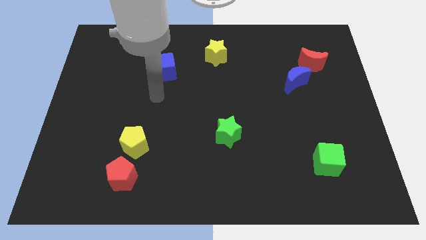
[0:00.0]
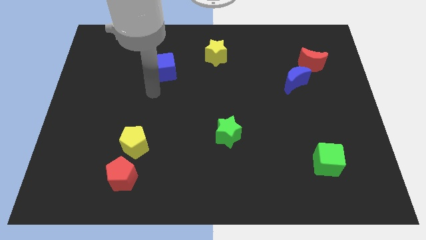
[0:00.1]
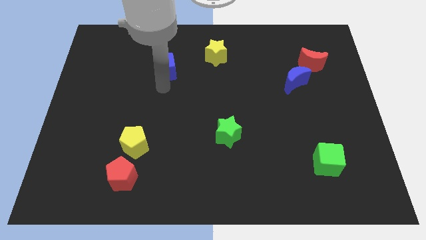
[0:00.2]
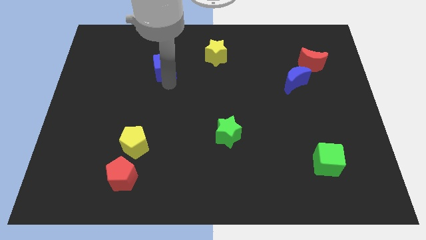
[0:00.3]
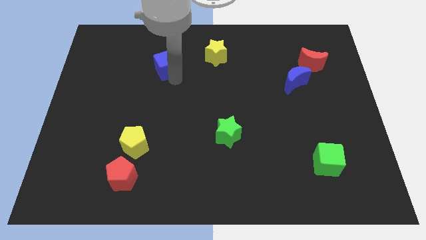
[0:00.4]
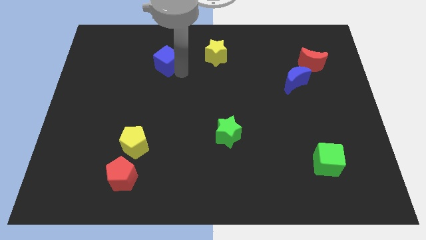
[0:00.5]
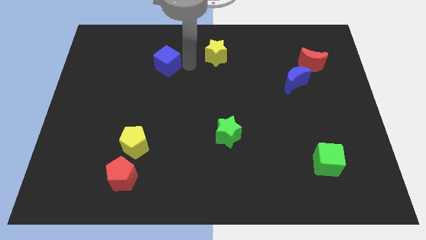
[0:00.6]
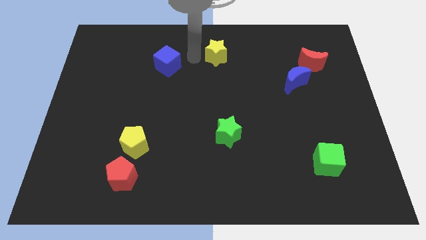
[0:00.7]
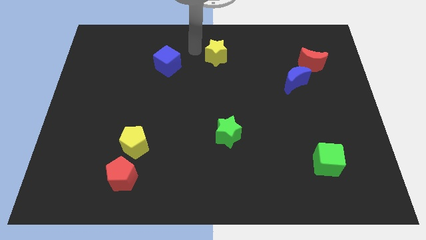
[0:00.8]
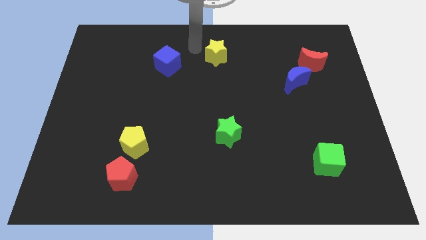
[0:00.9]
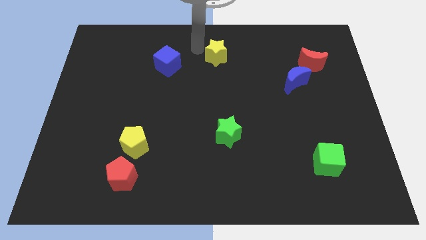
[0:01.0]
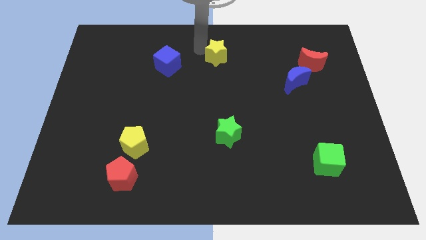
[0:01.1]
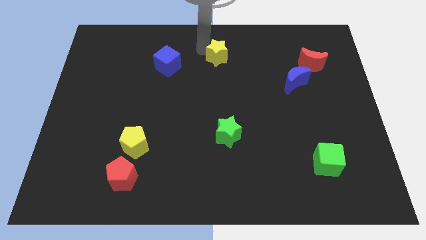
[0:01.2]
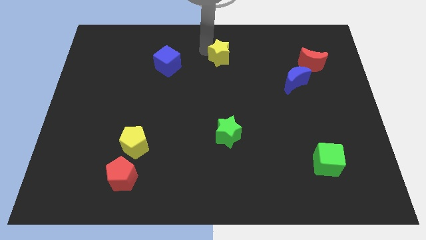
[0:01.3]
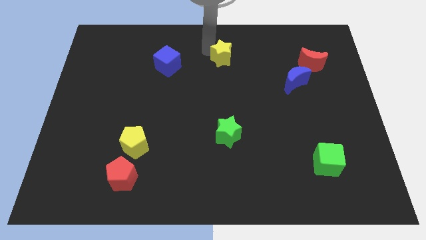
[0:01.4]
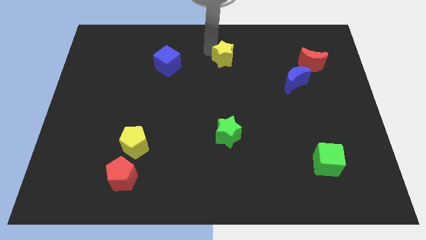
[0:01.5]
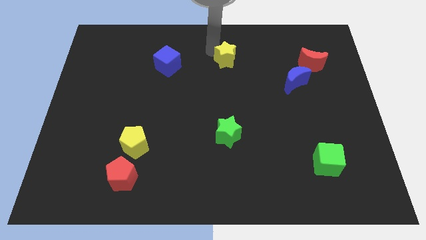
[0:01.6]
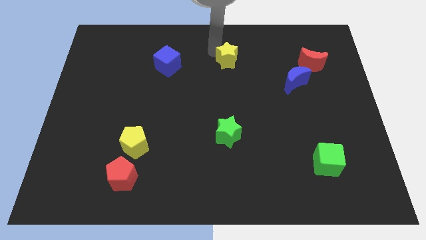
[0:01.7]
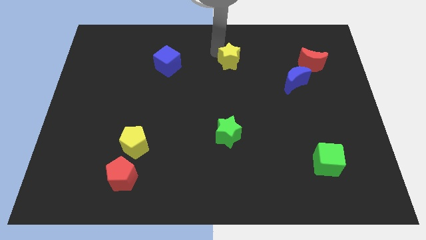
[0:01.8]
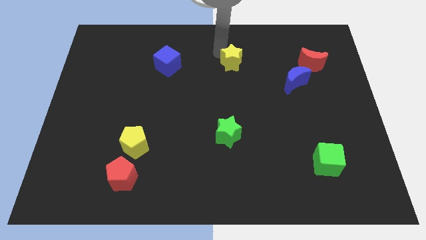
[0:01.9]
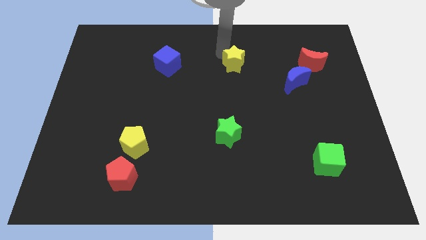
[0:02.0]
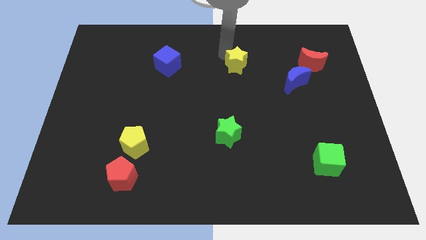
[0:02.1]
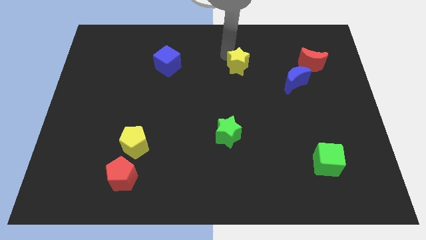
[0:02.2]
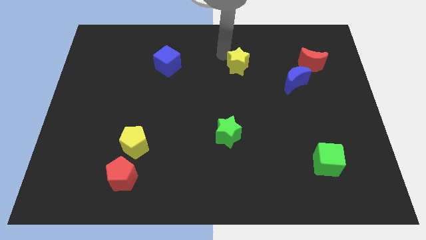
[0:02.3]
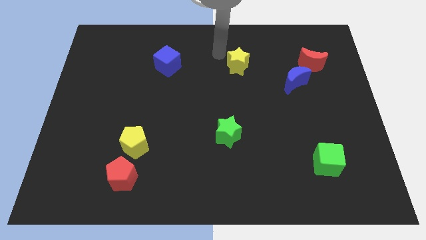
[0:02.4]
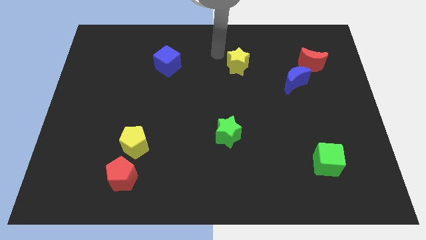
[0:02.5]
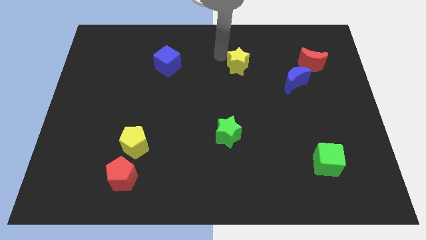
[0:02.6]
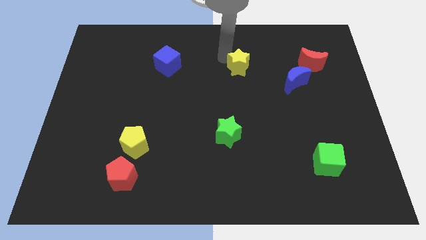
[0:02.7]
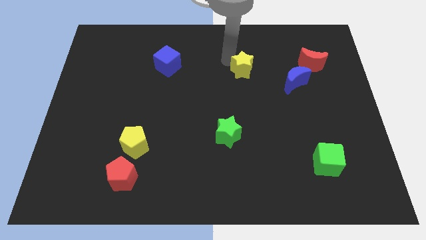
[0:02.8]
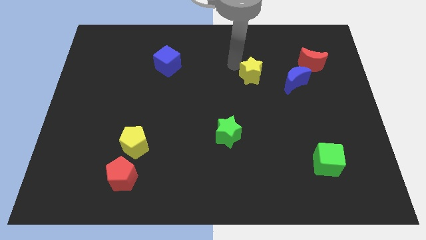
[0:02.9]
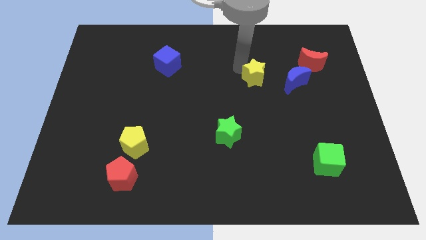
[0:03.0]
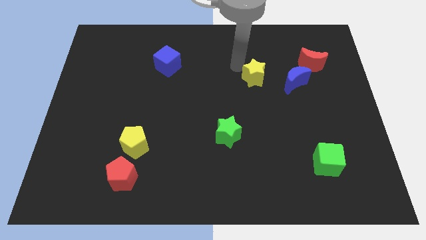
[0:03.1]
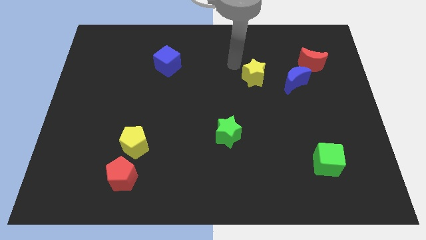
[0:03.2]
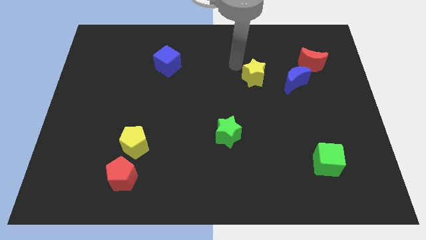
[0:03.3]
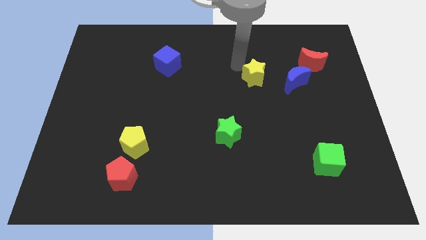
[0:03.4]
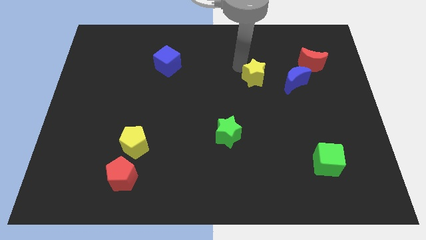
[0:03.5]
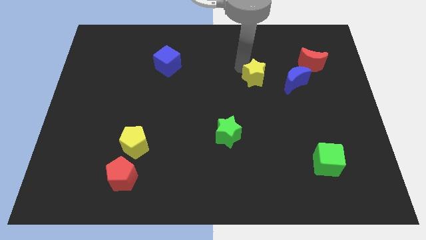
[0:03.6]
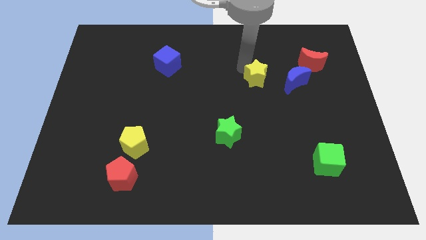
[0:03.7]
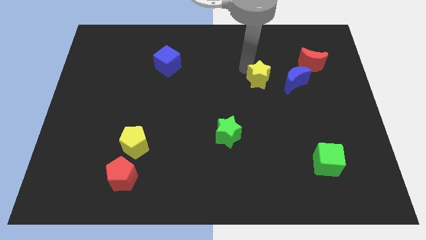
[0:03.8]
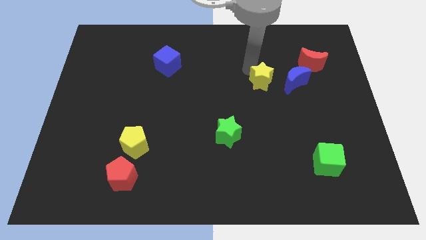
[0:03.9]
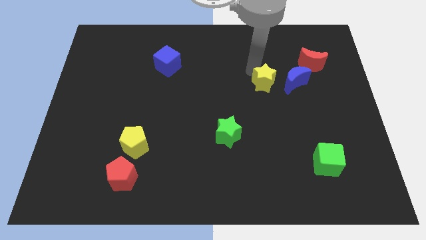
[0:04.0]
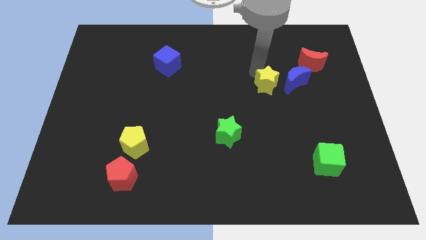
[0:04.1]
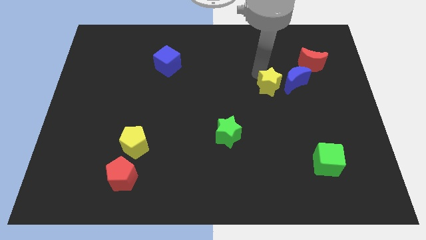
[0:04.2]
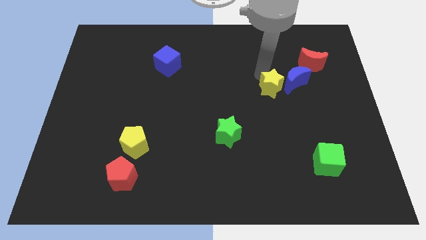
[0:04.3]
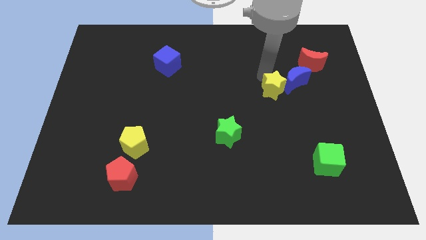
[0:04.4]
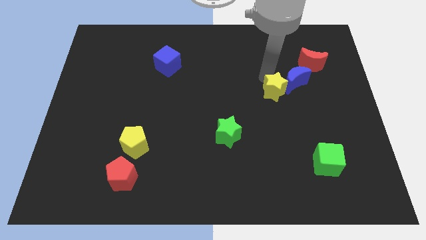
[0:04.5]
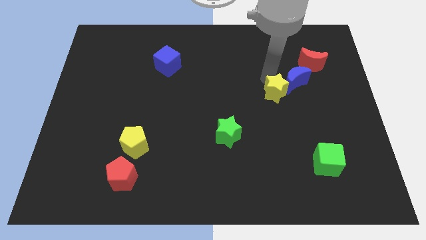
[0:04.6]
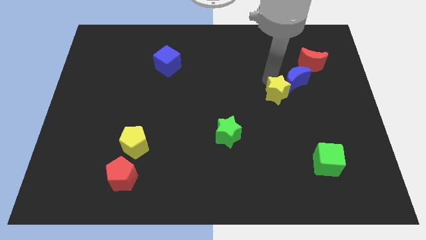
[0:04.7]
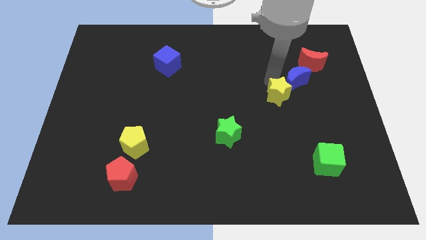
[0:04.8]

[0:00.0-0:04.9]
move the yellow star below the blue moon

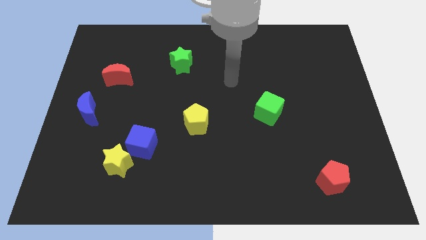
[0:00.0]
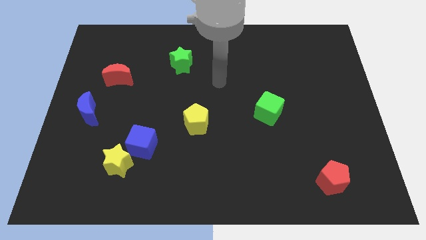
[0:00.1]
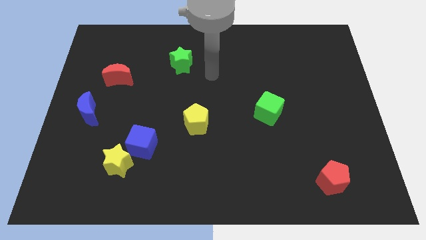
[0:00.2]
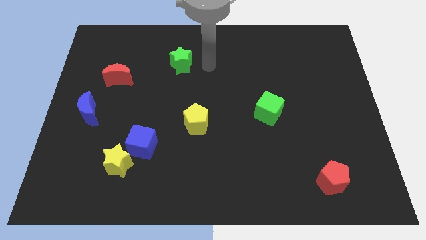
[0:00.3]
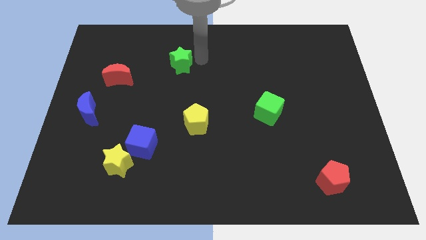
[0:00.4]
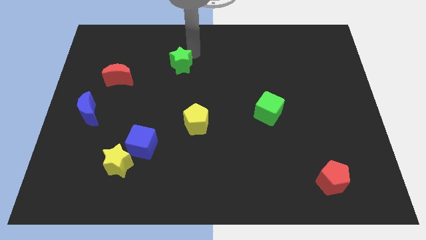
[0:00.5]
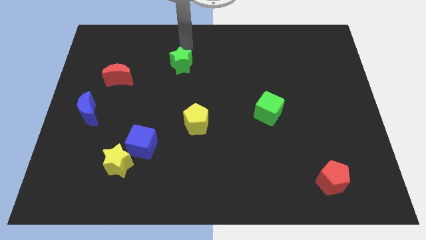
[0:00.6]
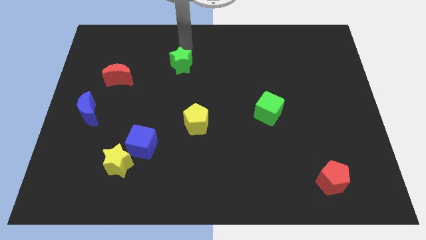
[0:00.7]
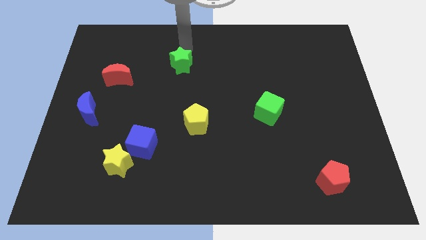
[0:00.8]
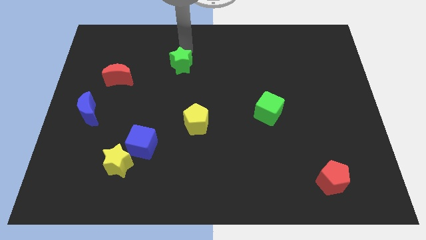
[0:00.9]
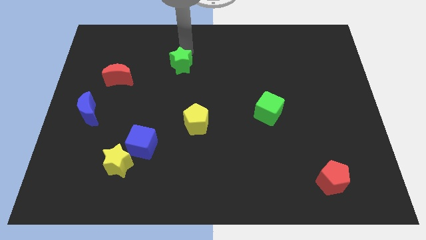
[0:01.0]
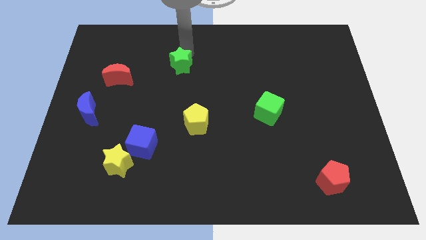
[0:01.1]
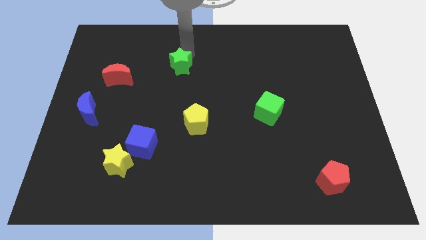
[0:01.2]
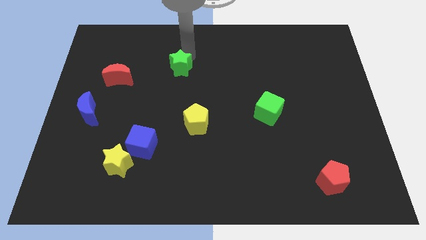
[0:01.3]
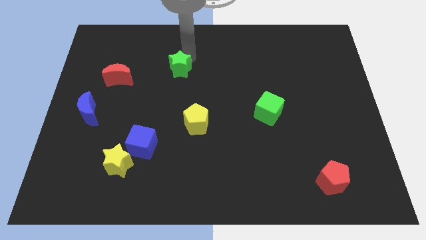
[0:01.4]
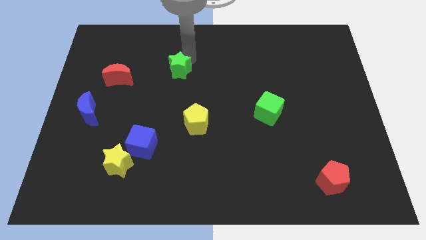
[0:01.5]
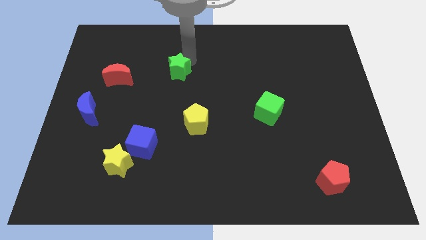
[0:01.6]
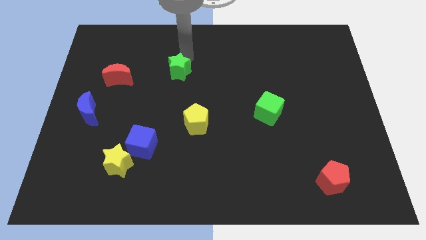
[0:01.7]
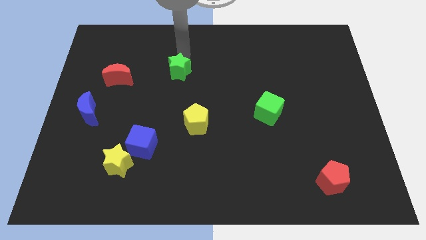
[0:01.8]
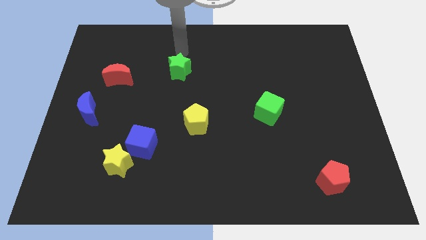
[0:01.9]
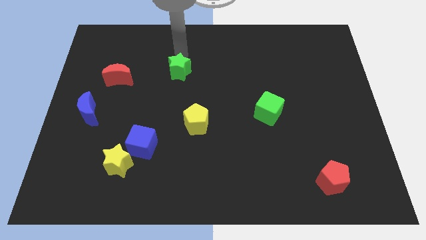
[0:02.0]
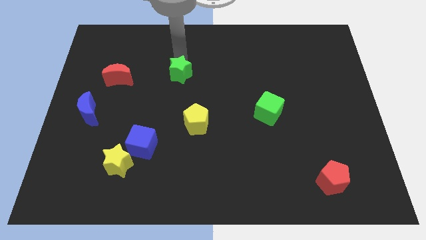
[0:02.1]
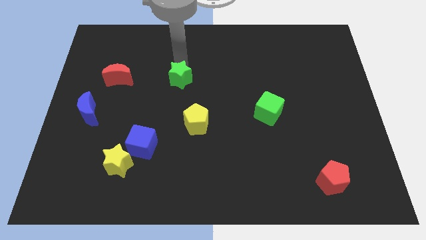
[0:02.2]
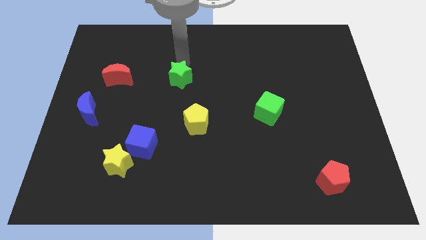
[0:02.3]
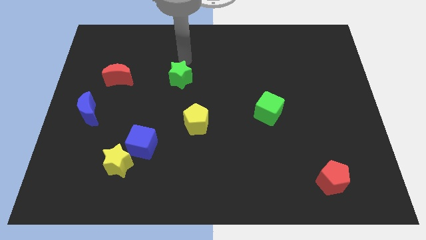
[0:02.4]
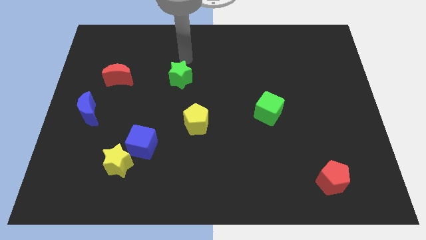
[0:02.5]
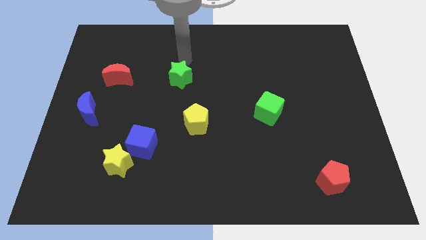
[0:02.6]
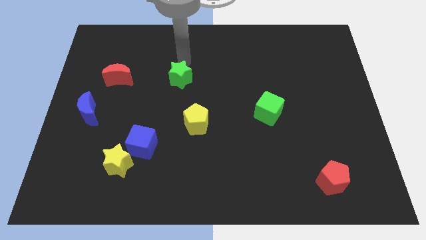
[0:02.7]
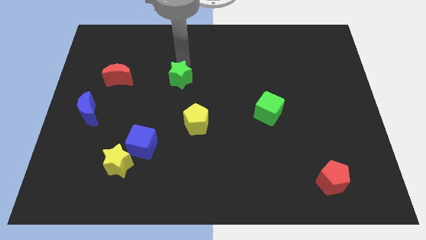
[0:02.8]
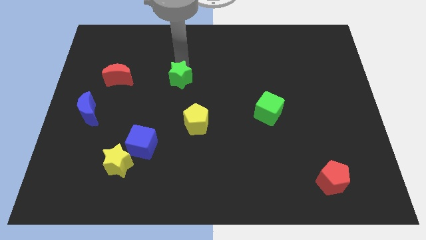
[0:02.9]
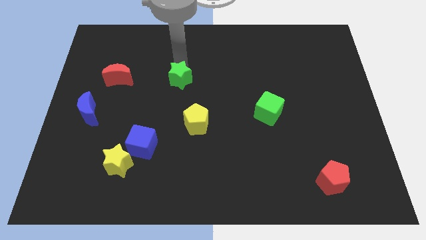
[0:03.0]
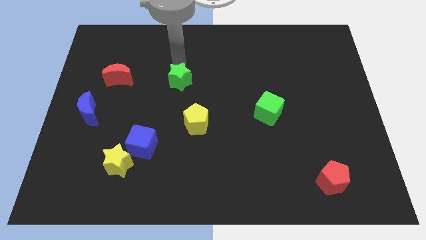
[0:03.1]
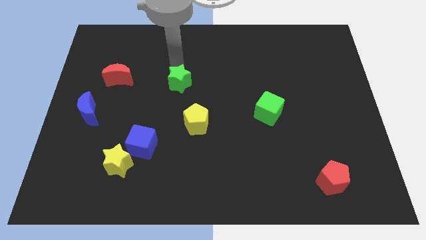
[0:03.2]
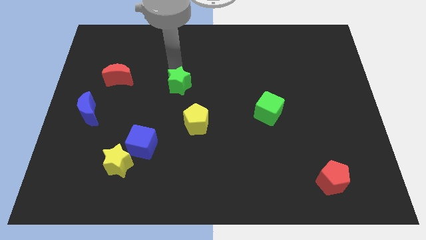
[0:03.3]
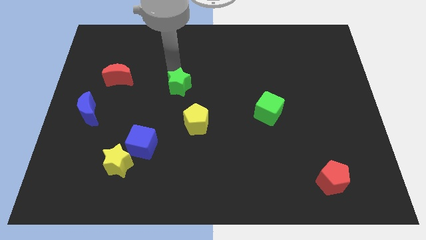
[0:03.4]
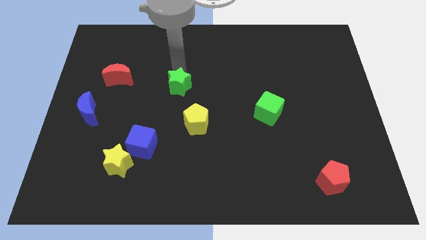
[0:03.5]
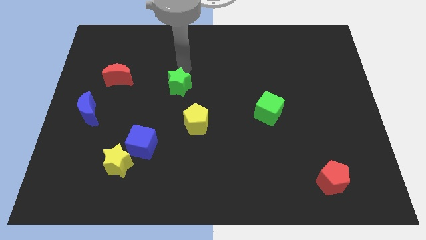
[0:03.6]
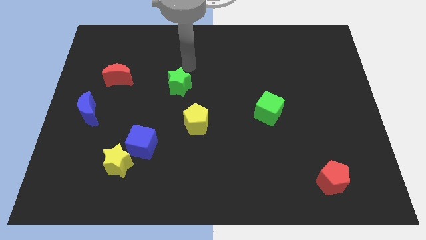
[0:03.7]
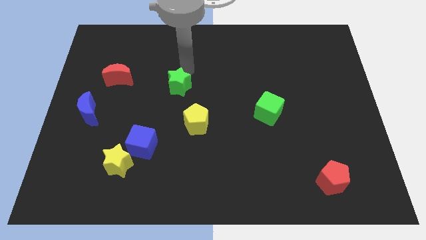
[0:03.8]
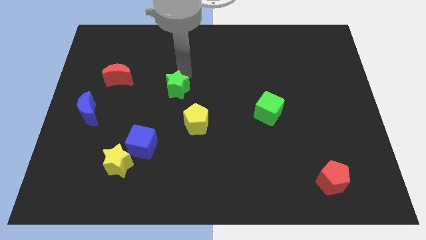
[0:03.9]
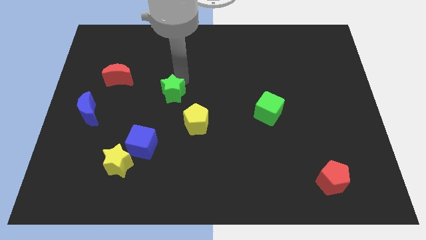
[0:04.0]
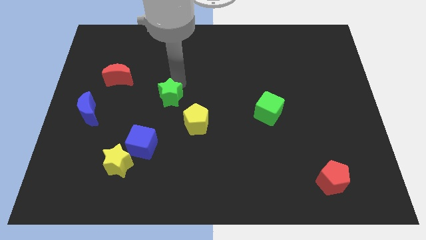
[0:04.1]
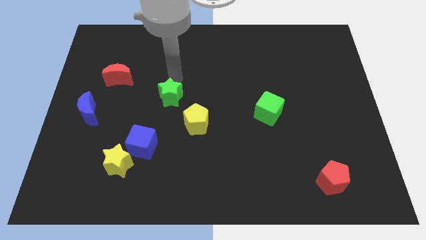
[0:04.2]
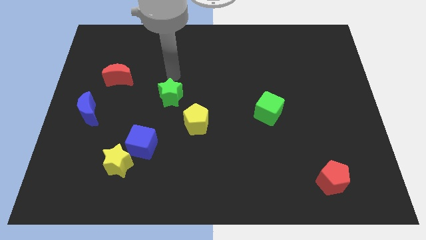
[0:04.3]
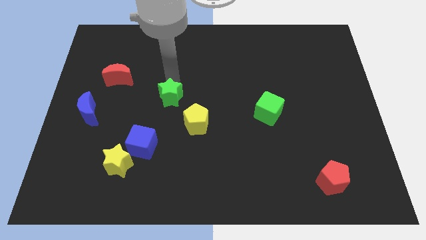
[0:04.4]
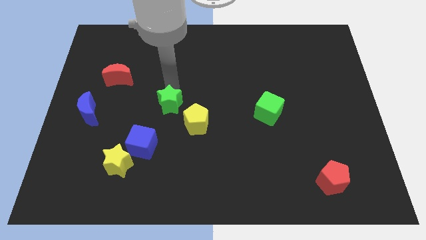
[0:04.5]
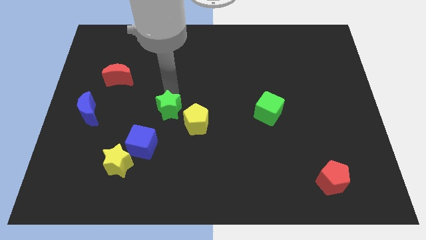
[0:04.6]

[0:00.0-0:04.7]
slide the green star diagonally up and to the right of the blue cube
